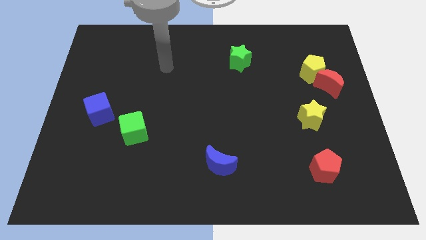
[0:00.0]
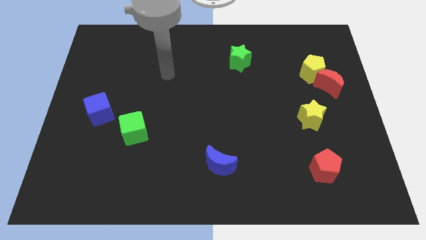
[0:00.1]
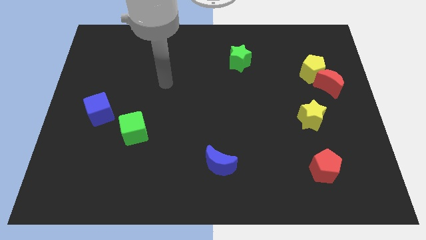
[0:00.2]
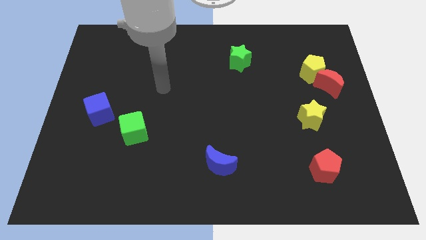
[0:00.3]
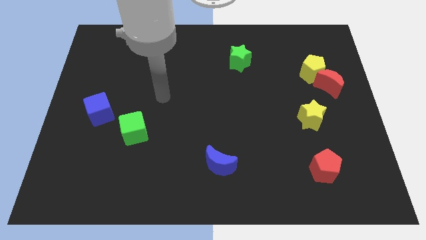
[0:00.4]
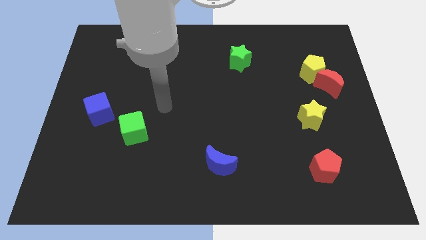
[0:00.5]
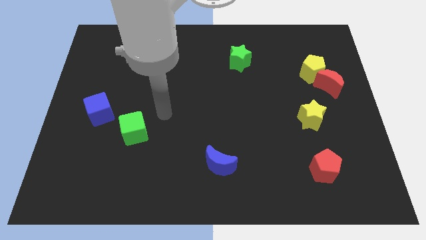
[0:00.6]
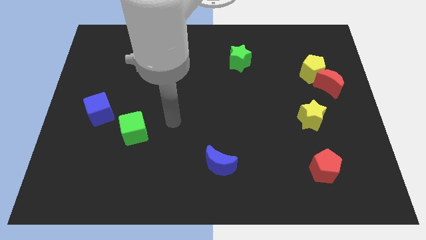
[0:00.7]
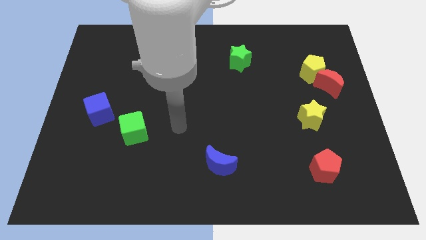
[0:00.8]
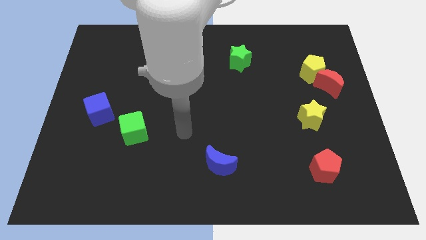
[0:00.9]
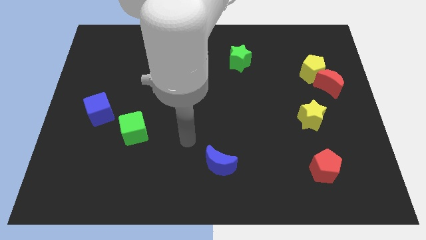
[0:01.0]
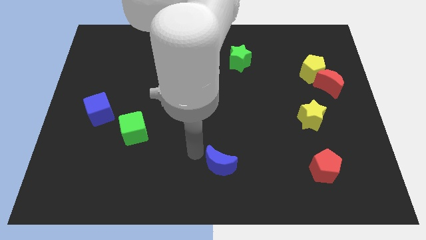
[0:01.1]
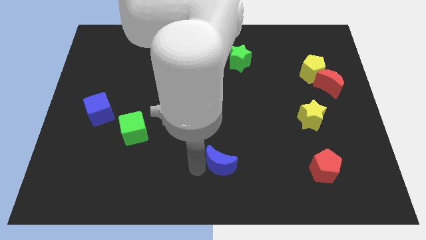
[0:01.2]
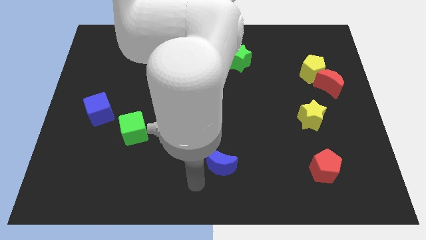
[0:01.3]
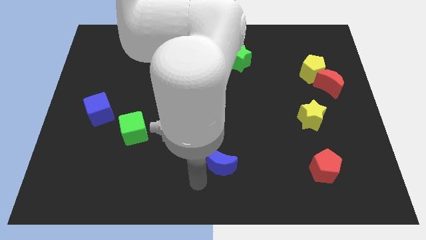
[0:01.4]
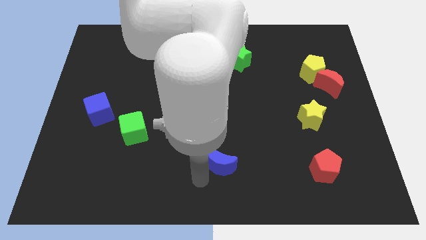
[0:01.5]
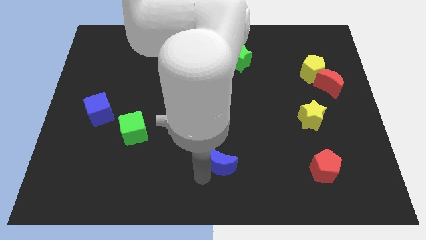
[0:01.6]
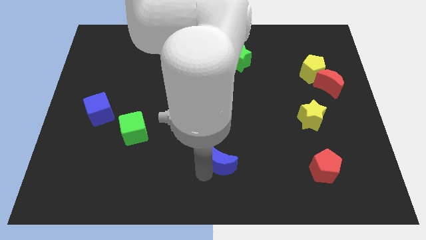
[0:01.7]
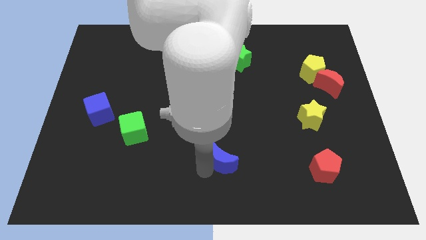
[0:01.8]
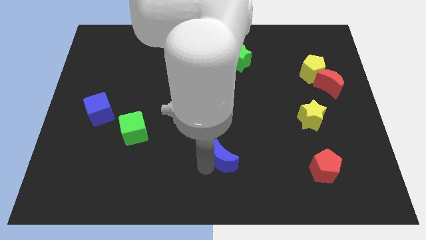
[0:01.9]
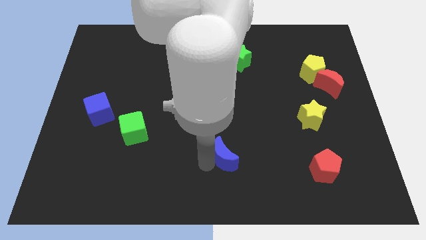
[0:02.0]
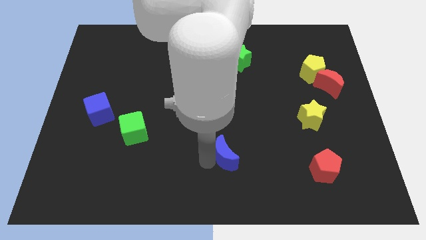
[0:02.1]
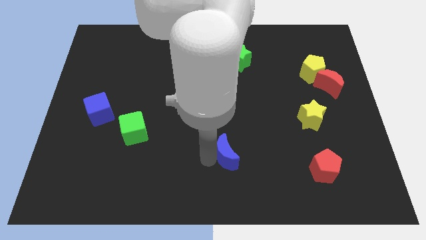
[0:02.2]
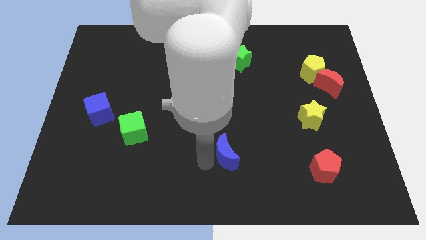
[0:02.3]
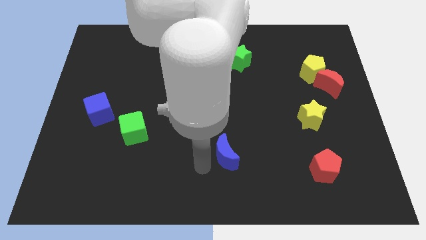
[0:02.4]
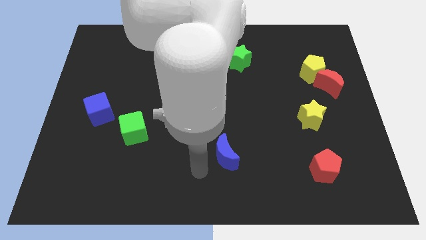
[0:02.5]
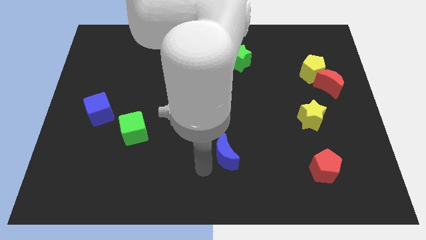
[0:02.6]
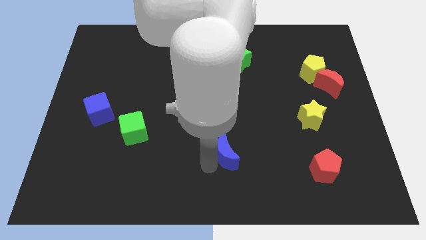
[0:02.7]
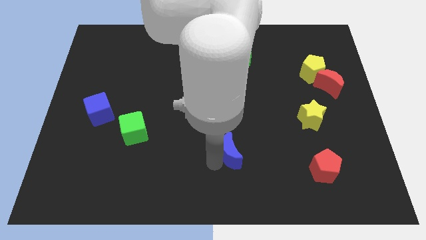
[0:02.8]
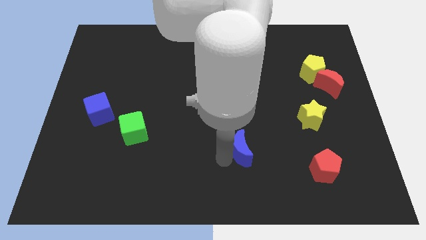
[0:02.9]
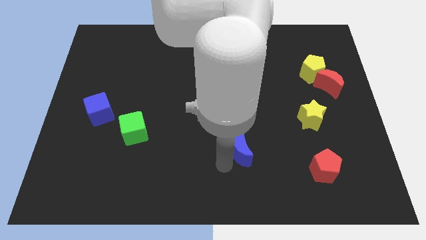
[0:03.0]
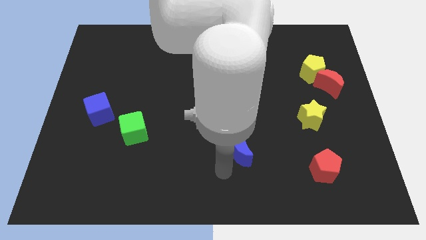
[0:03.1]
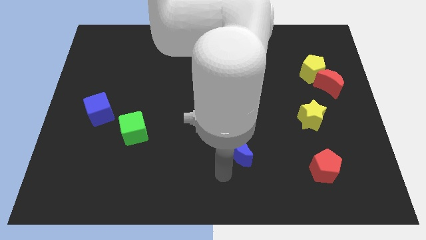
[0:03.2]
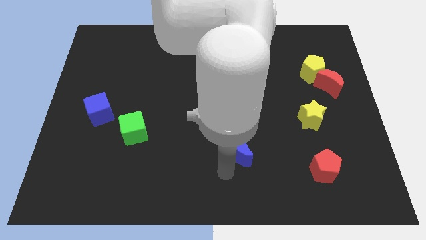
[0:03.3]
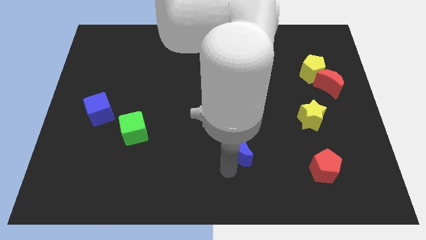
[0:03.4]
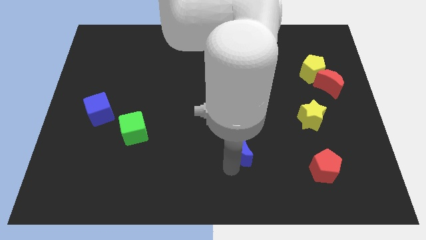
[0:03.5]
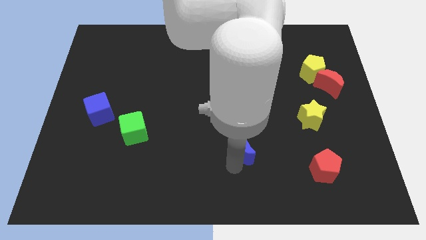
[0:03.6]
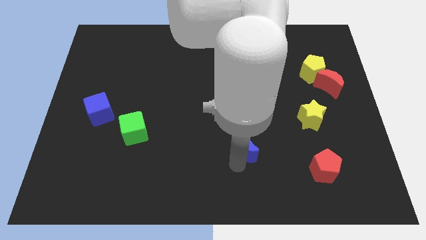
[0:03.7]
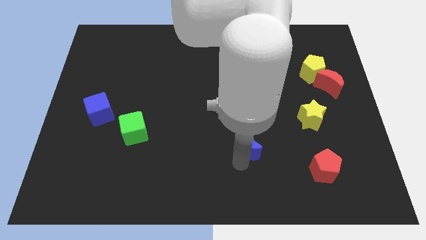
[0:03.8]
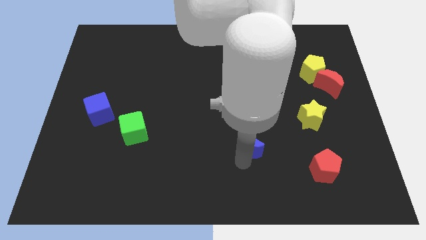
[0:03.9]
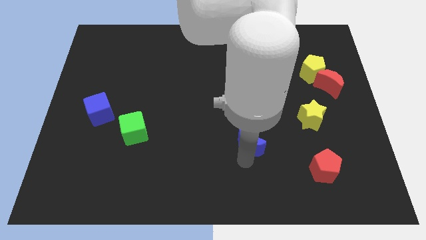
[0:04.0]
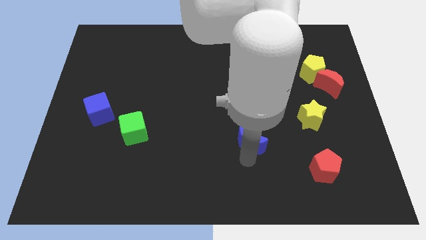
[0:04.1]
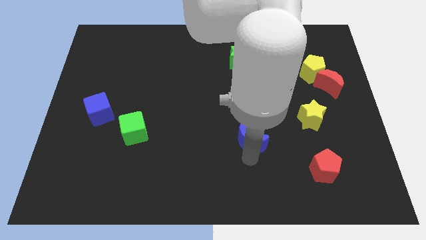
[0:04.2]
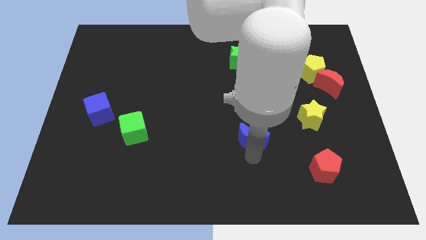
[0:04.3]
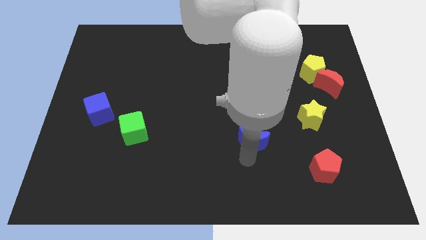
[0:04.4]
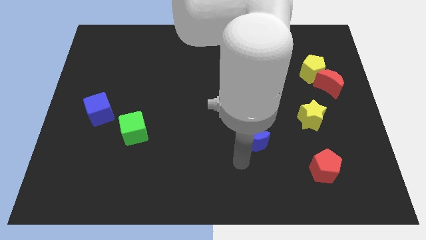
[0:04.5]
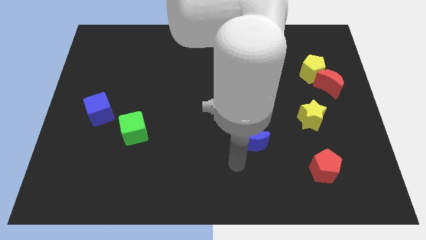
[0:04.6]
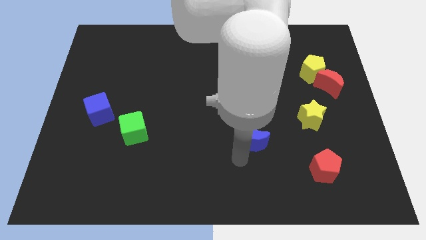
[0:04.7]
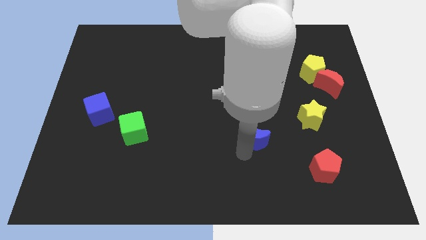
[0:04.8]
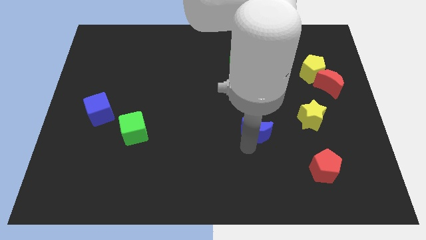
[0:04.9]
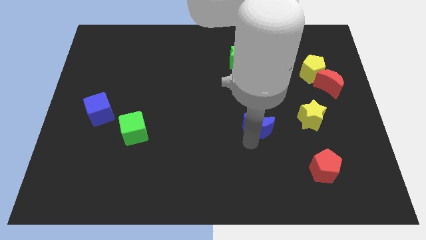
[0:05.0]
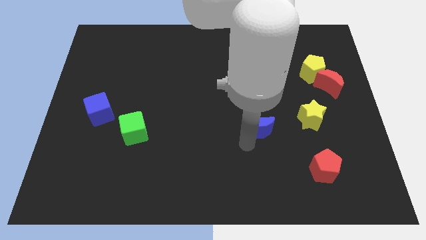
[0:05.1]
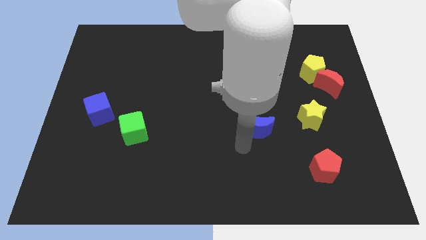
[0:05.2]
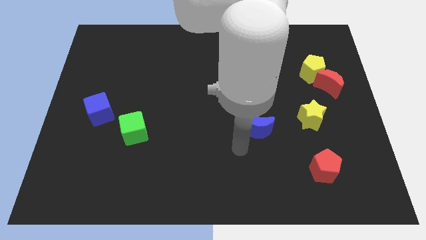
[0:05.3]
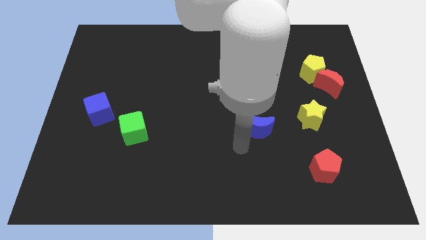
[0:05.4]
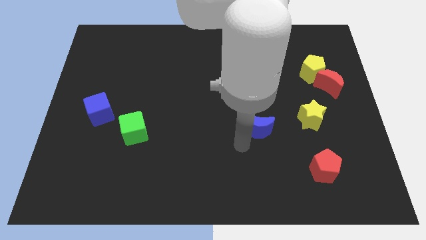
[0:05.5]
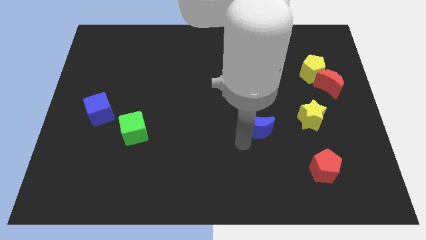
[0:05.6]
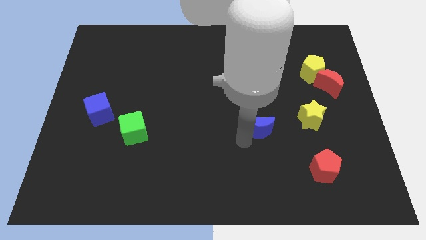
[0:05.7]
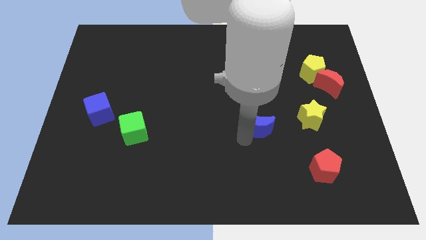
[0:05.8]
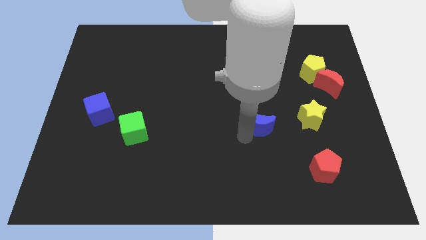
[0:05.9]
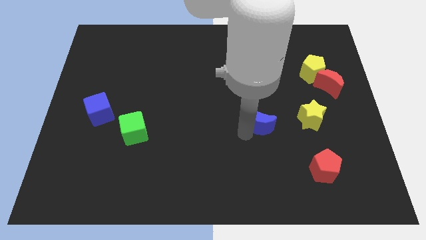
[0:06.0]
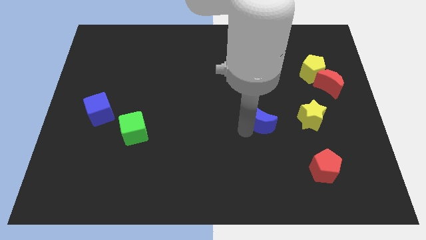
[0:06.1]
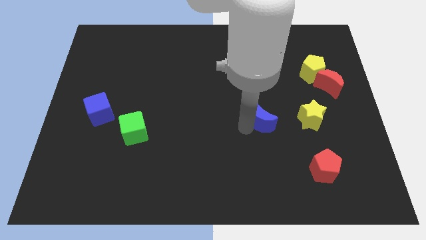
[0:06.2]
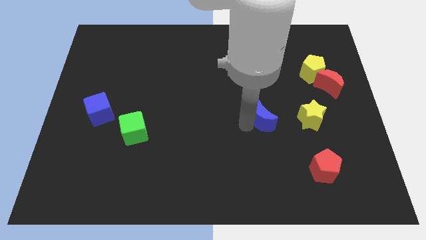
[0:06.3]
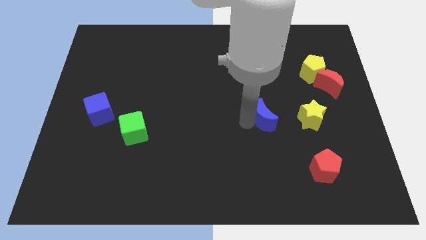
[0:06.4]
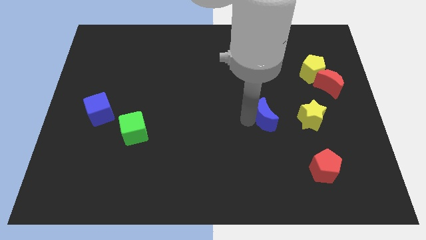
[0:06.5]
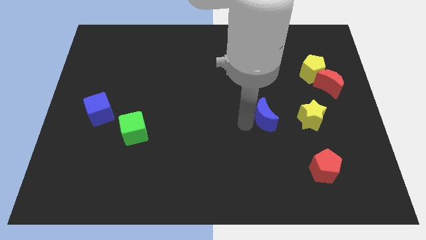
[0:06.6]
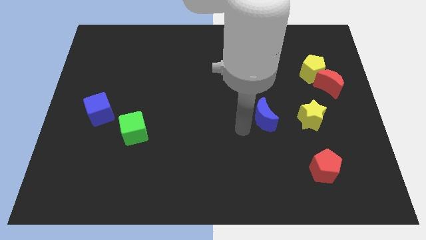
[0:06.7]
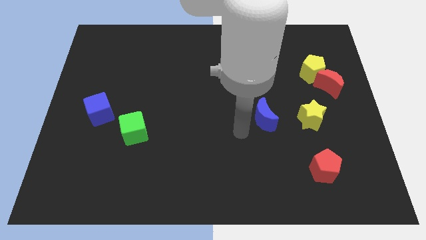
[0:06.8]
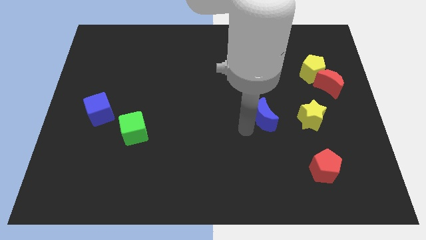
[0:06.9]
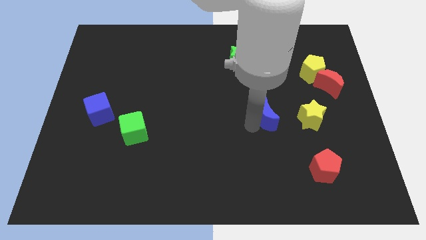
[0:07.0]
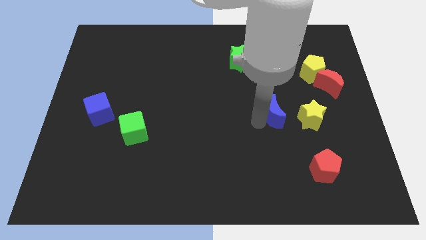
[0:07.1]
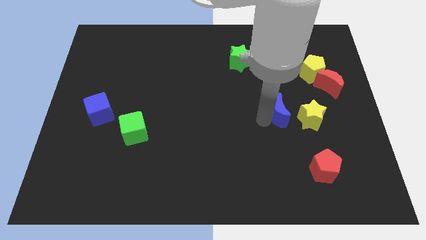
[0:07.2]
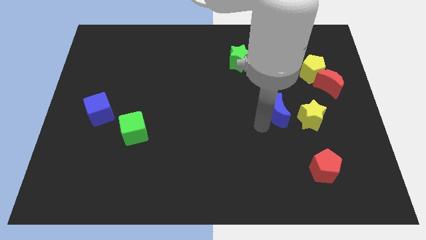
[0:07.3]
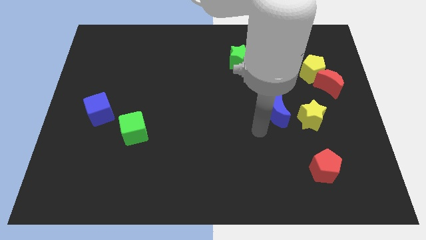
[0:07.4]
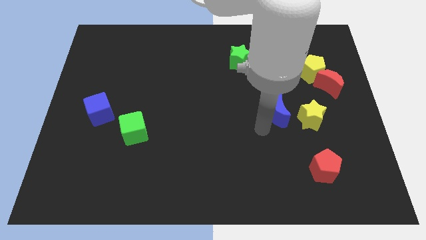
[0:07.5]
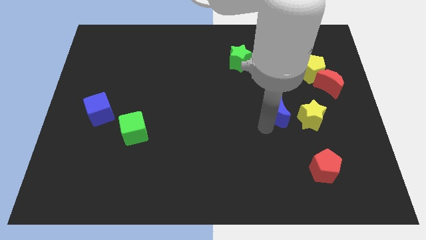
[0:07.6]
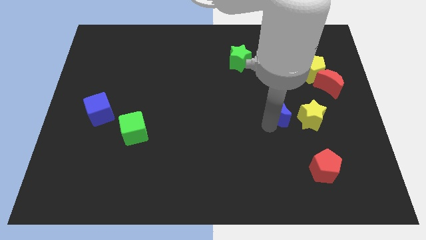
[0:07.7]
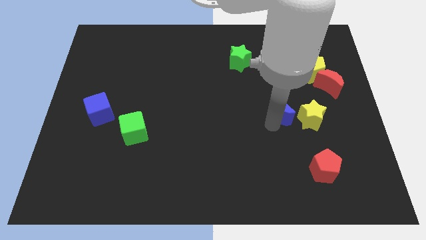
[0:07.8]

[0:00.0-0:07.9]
move the blue moon upwards and right diagonally
